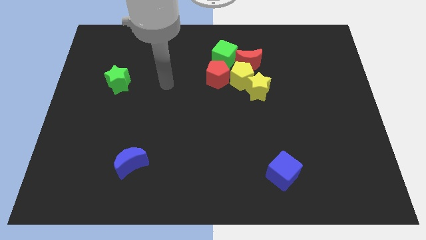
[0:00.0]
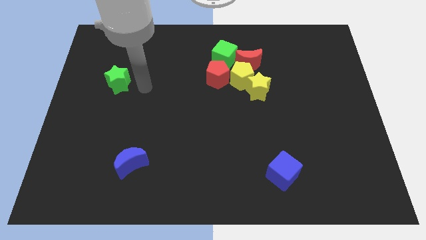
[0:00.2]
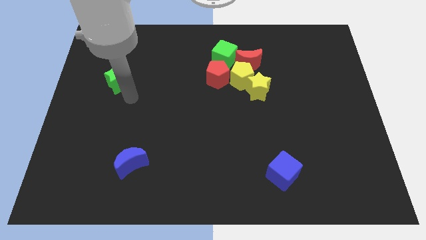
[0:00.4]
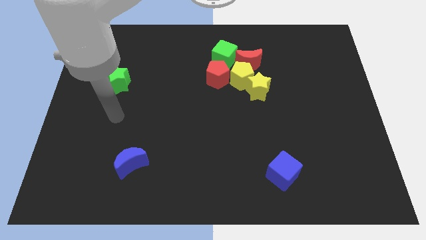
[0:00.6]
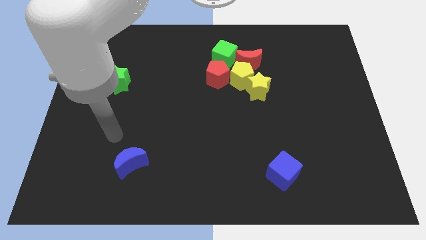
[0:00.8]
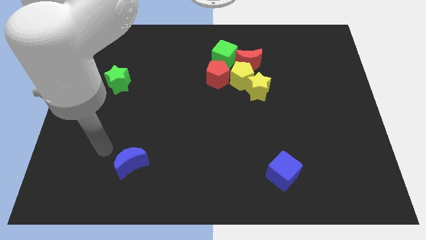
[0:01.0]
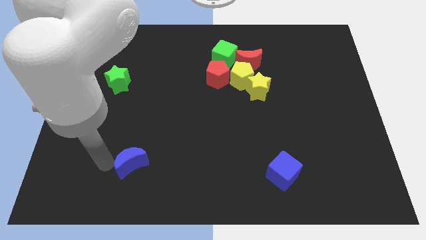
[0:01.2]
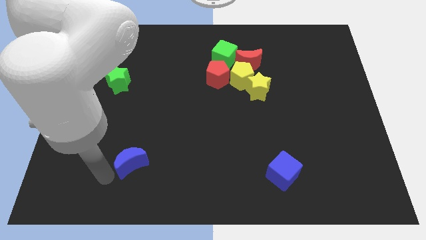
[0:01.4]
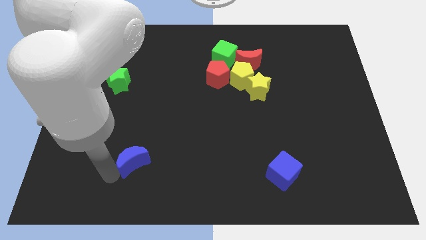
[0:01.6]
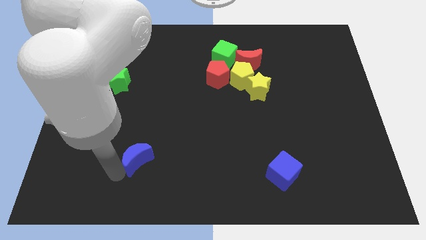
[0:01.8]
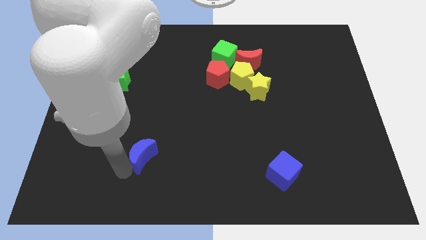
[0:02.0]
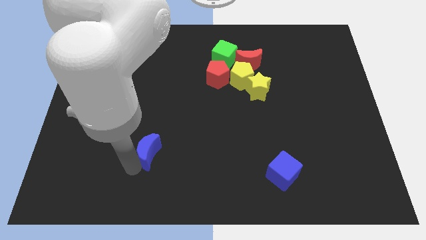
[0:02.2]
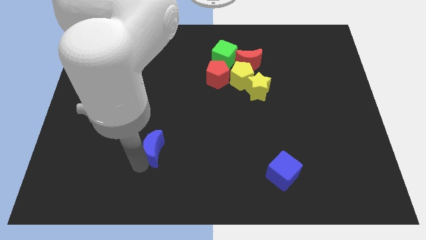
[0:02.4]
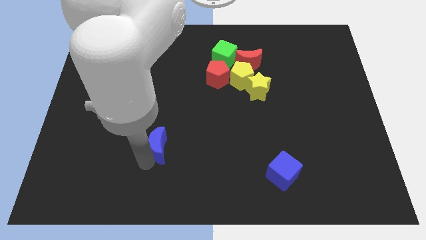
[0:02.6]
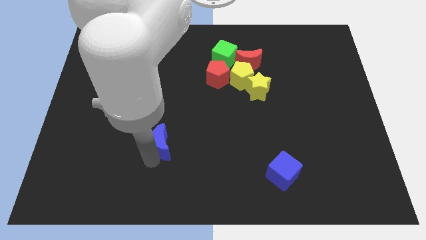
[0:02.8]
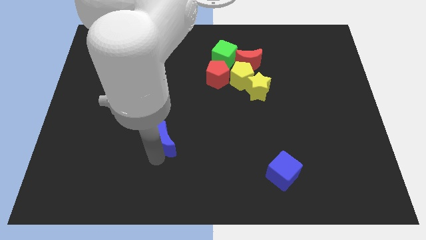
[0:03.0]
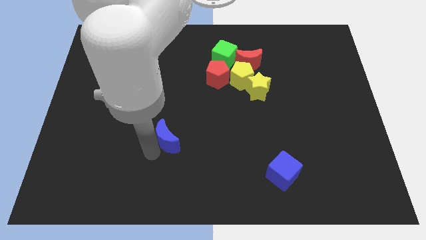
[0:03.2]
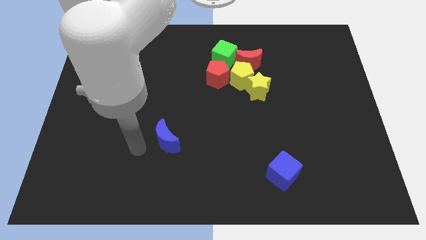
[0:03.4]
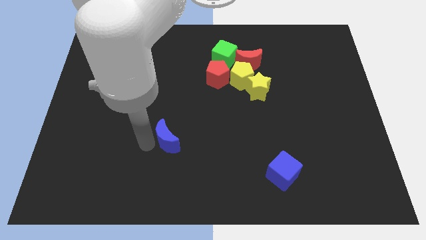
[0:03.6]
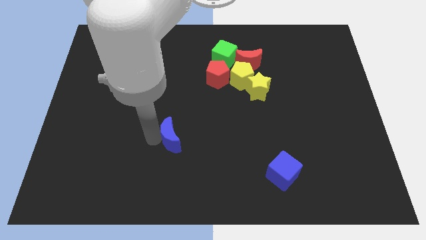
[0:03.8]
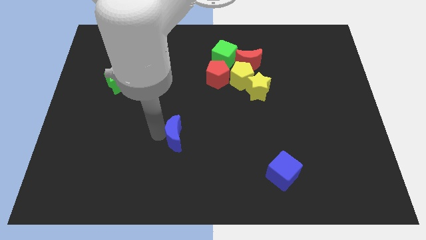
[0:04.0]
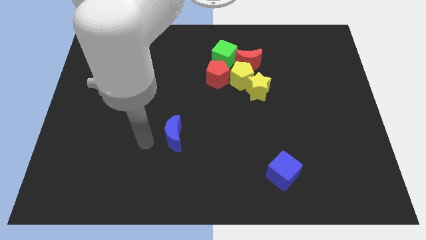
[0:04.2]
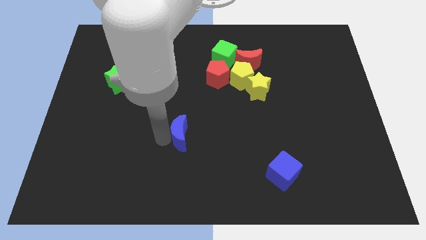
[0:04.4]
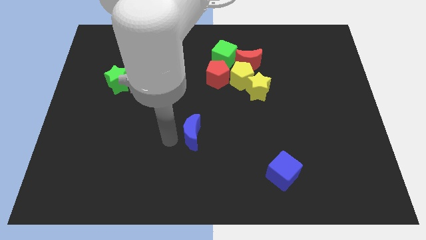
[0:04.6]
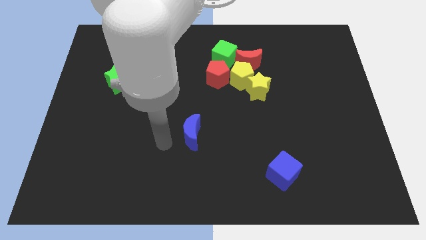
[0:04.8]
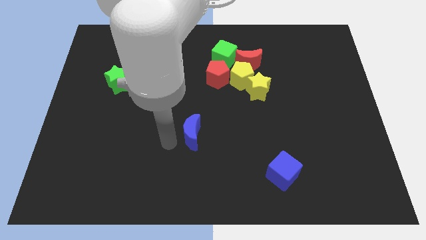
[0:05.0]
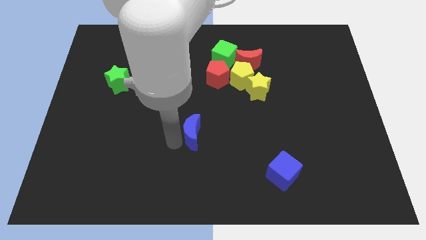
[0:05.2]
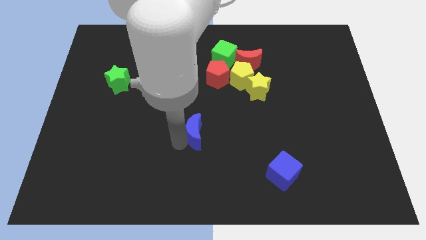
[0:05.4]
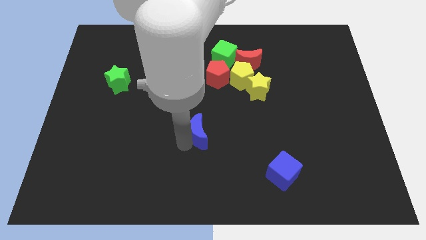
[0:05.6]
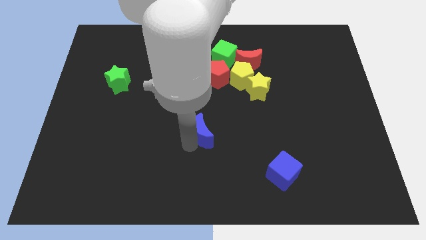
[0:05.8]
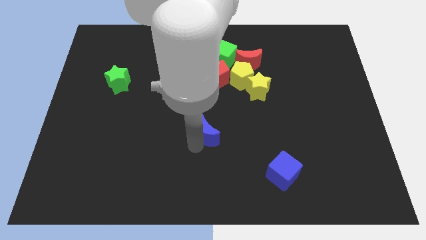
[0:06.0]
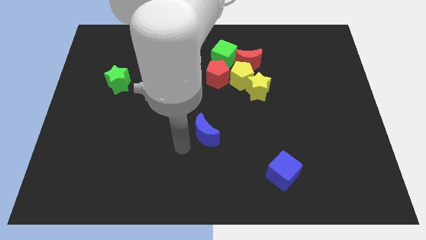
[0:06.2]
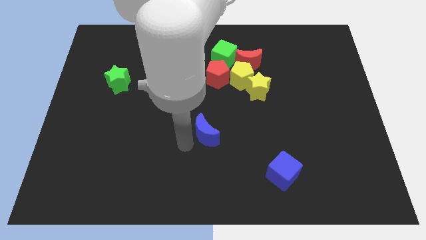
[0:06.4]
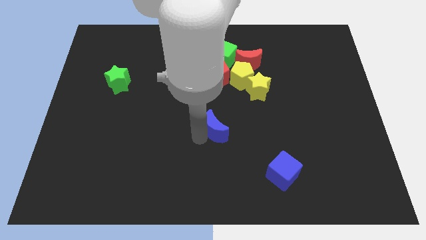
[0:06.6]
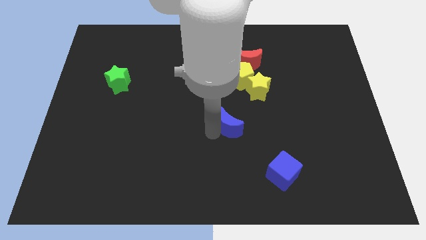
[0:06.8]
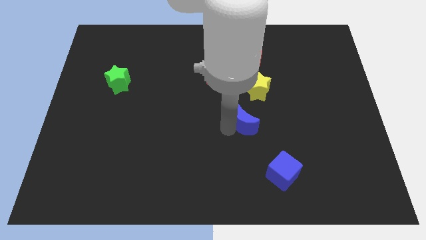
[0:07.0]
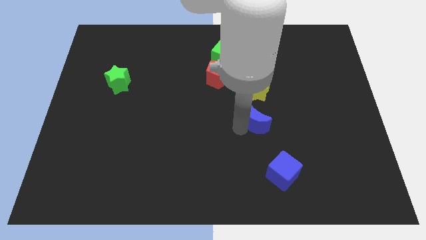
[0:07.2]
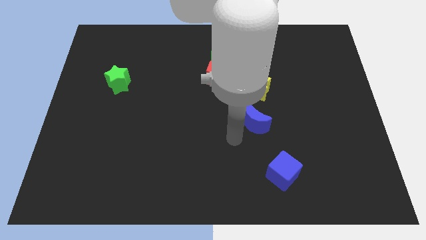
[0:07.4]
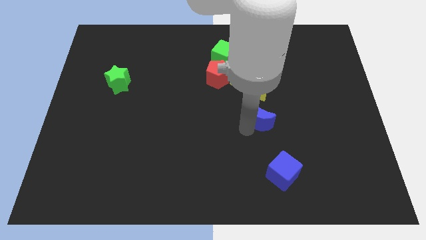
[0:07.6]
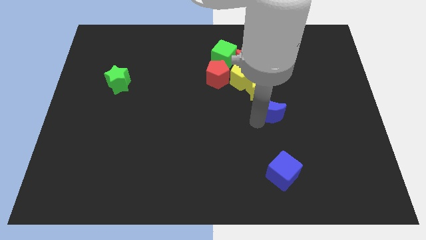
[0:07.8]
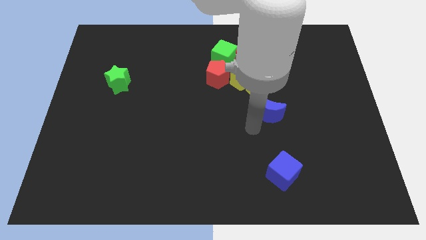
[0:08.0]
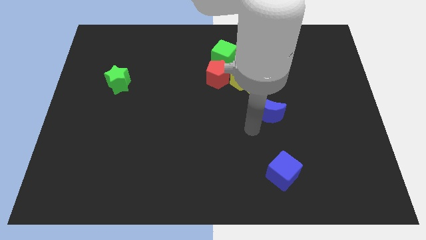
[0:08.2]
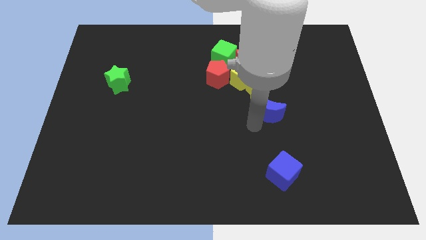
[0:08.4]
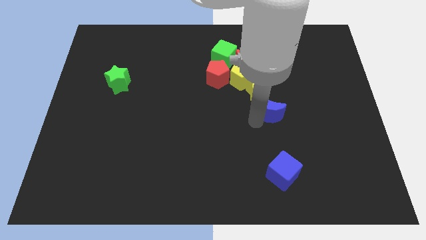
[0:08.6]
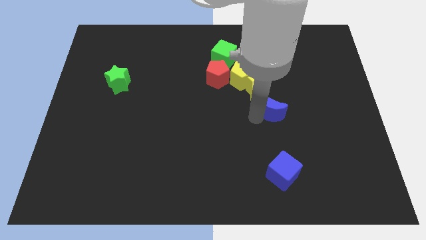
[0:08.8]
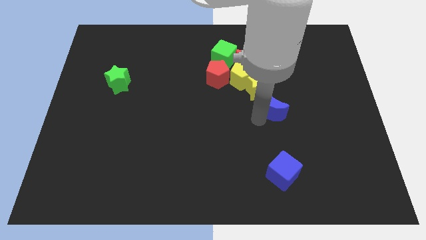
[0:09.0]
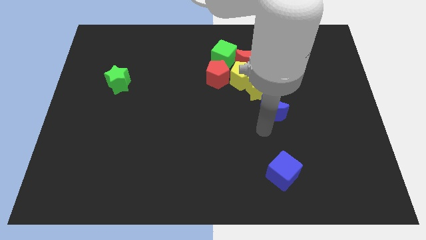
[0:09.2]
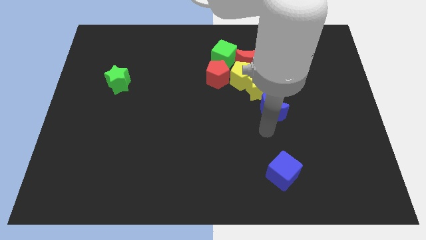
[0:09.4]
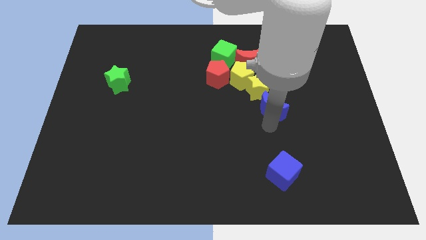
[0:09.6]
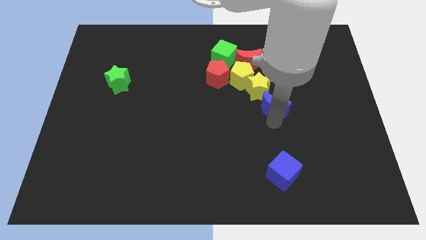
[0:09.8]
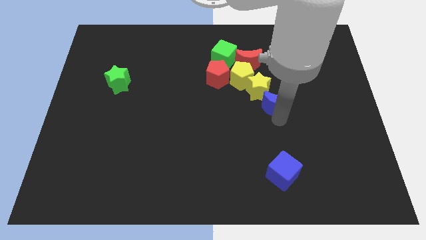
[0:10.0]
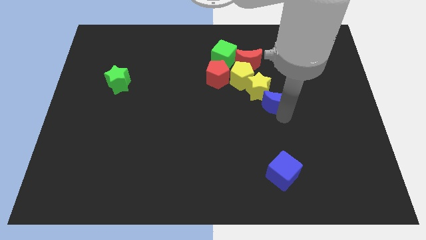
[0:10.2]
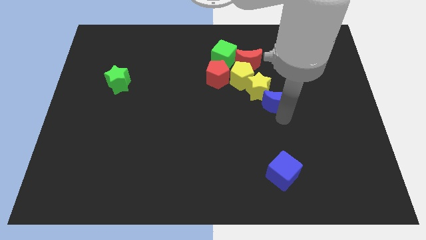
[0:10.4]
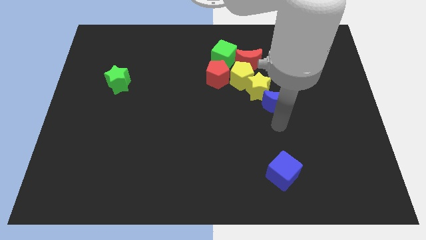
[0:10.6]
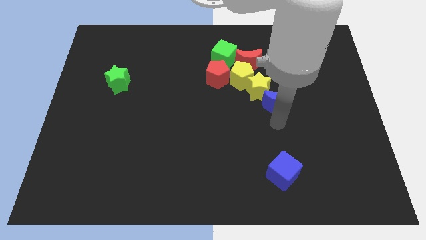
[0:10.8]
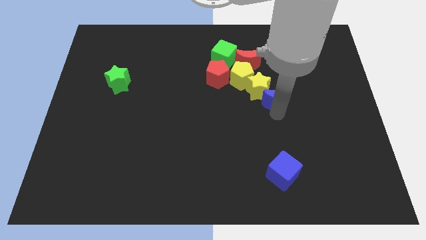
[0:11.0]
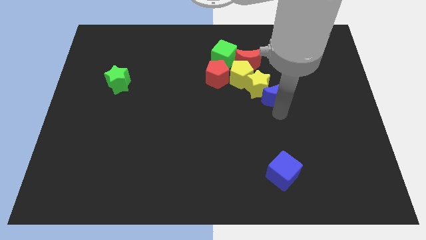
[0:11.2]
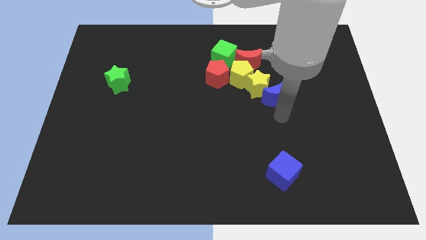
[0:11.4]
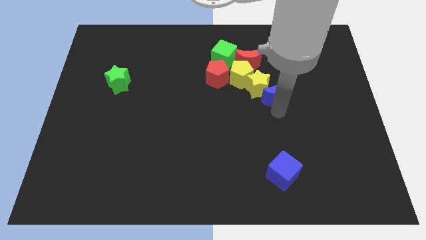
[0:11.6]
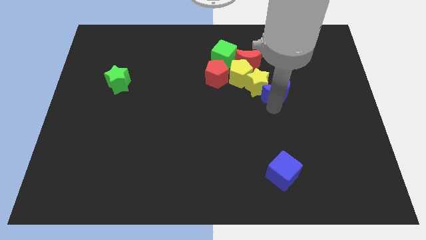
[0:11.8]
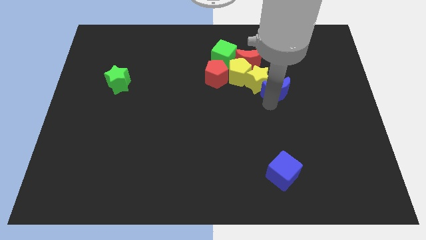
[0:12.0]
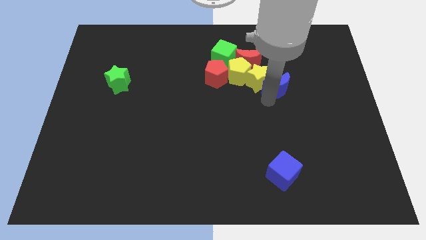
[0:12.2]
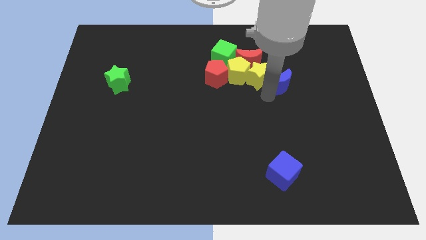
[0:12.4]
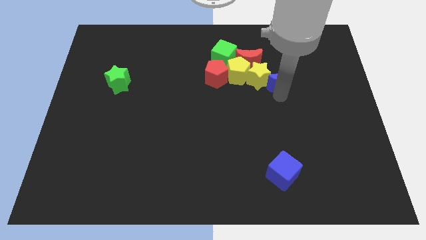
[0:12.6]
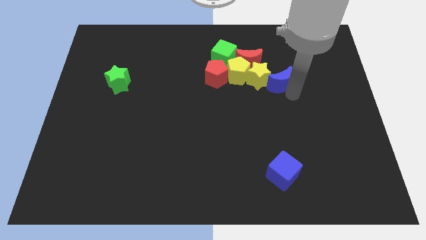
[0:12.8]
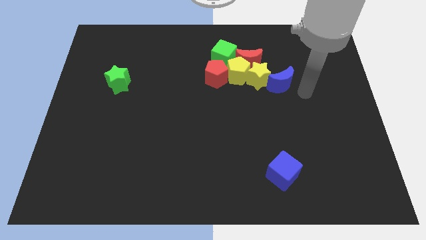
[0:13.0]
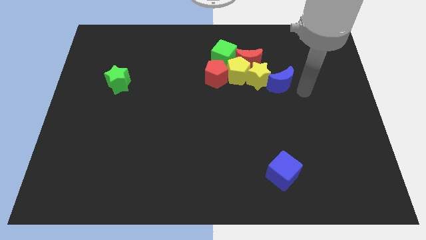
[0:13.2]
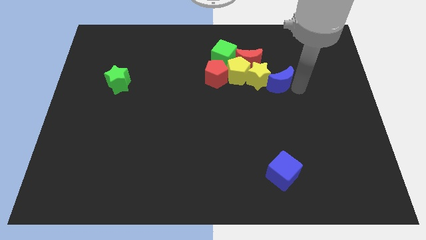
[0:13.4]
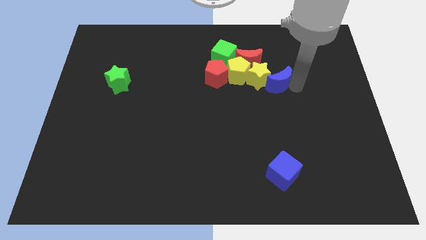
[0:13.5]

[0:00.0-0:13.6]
move the blue moon to the right of the red pentagon

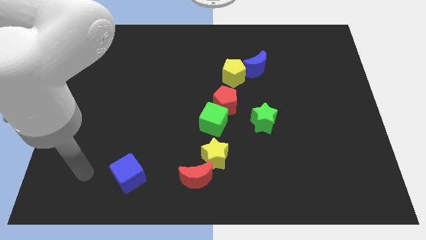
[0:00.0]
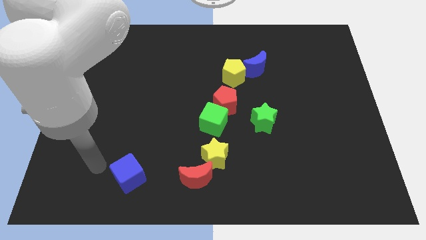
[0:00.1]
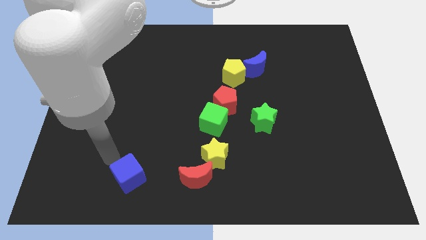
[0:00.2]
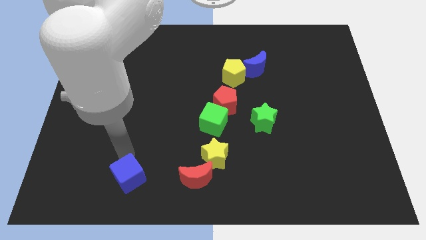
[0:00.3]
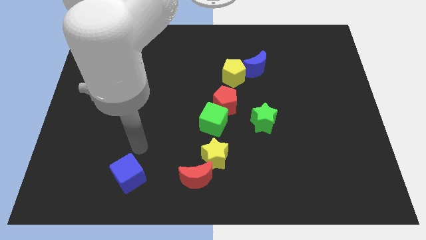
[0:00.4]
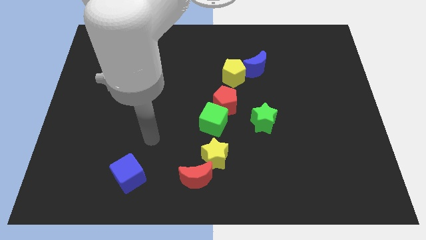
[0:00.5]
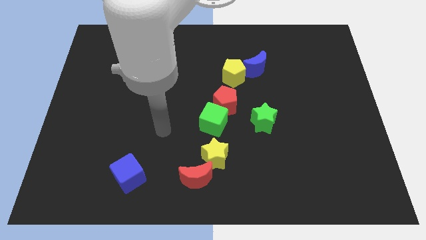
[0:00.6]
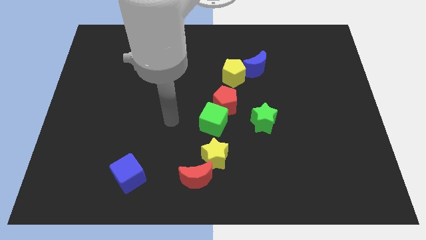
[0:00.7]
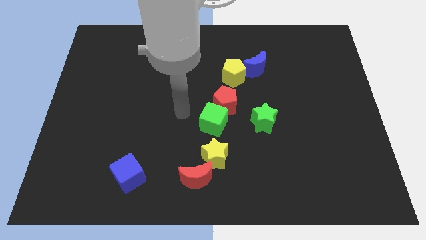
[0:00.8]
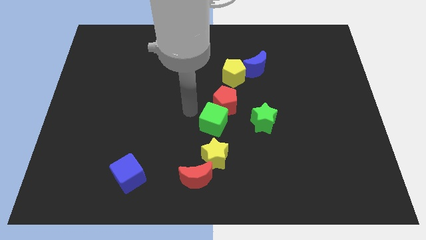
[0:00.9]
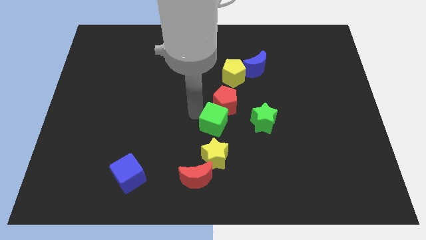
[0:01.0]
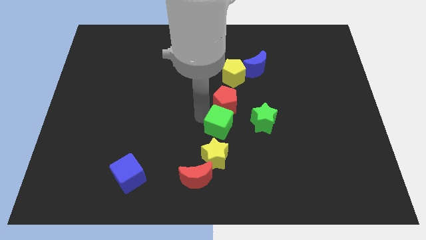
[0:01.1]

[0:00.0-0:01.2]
push the green cube to the top right of the yellow star
